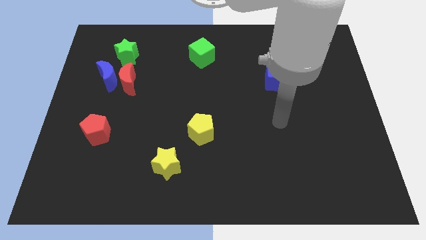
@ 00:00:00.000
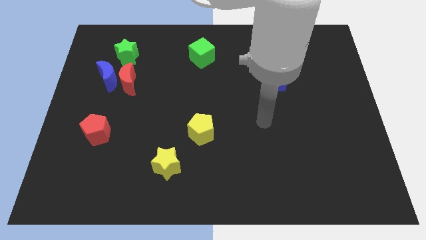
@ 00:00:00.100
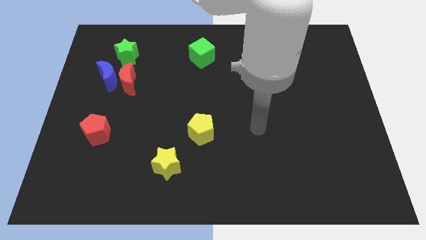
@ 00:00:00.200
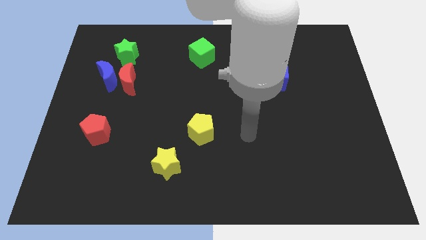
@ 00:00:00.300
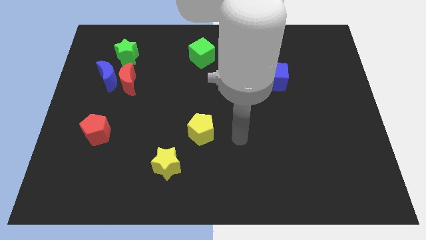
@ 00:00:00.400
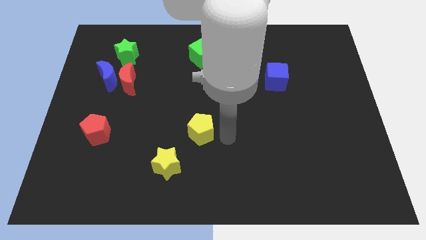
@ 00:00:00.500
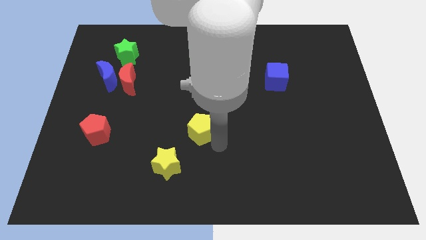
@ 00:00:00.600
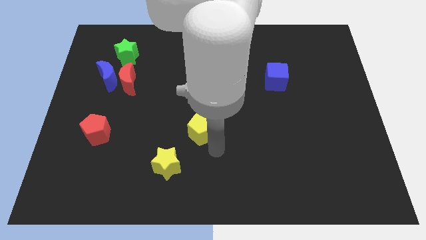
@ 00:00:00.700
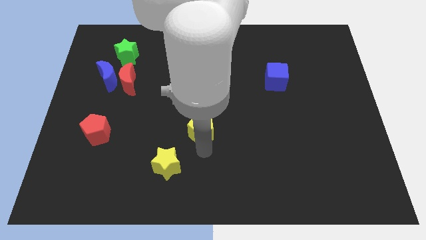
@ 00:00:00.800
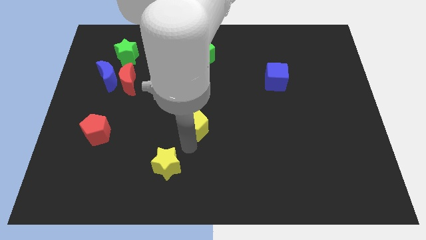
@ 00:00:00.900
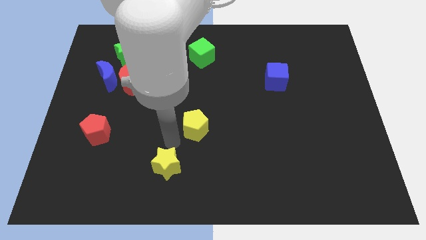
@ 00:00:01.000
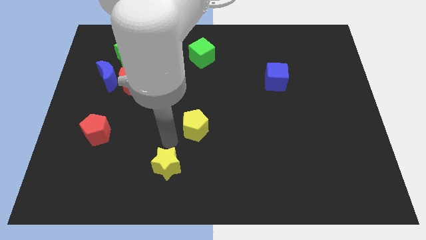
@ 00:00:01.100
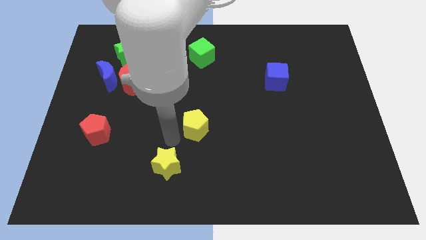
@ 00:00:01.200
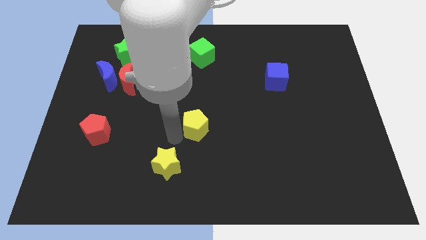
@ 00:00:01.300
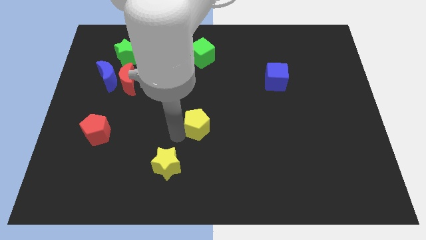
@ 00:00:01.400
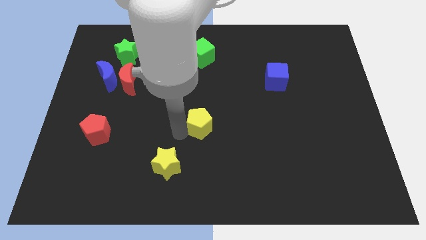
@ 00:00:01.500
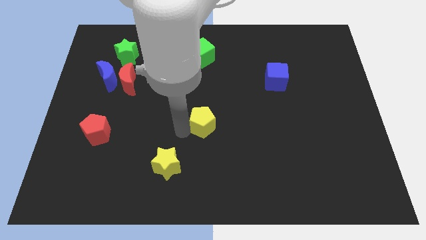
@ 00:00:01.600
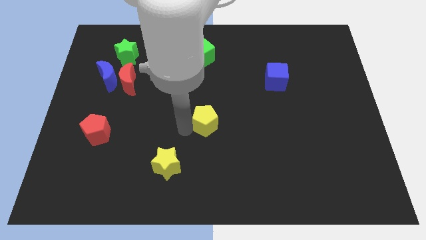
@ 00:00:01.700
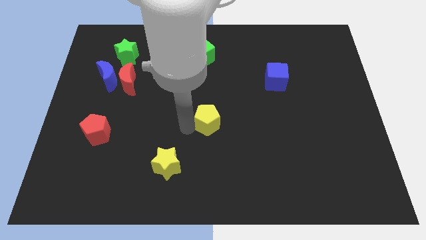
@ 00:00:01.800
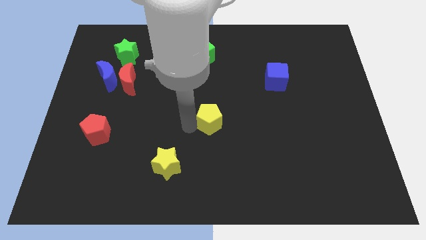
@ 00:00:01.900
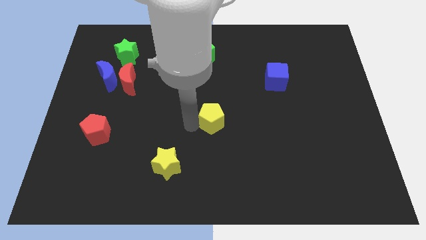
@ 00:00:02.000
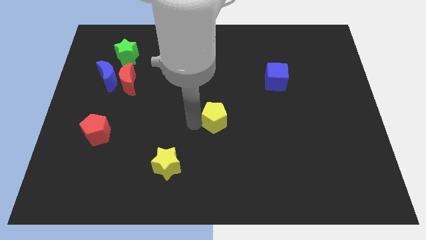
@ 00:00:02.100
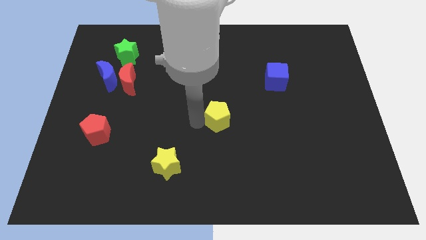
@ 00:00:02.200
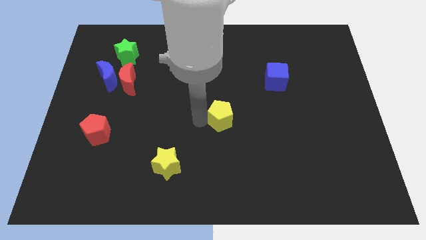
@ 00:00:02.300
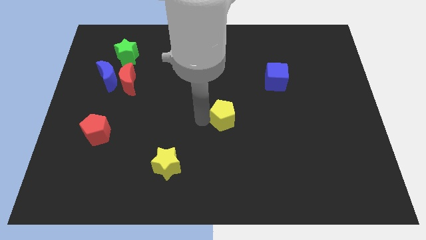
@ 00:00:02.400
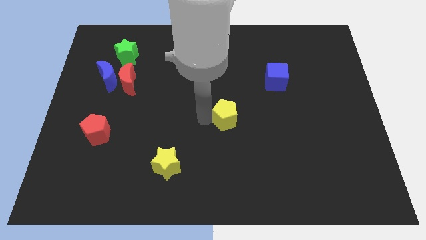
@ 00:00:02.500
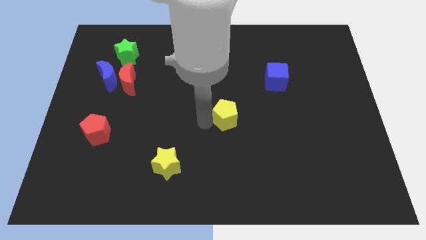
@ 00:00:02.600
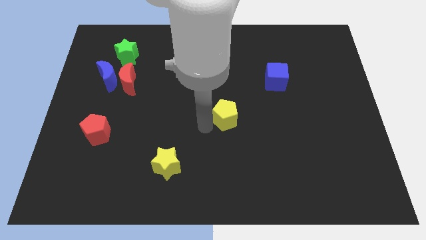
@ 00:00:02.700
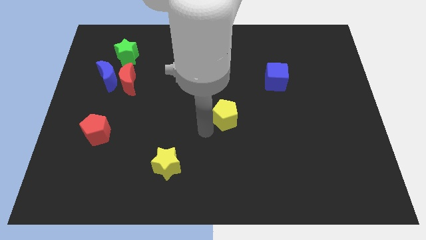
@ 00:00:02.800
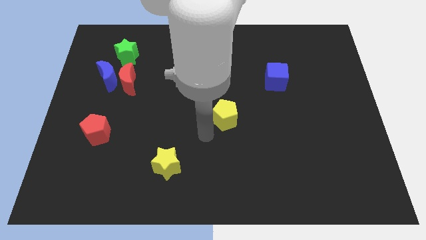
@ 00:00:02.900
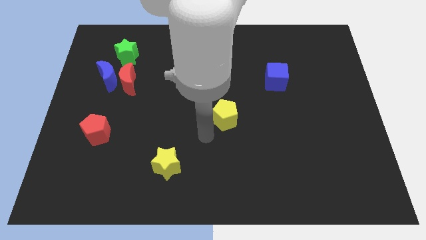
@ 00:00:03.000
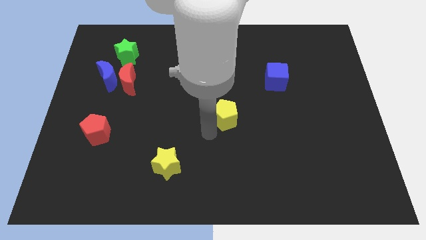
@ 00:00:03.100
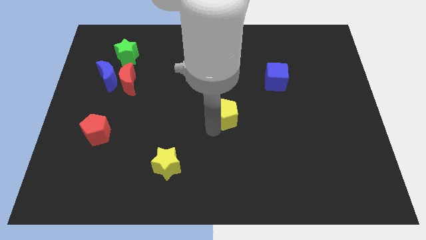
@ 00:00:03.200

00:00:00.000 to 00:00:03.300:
slightly push the yellow pentagon upwards and to the right

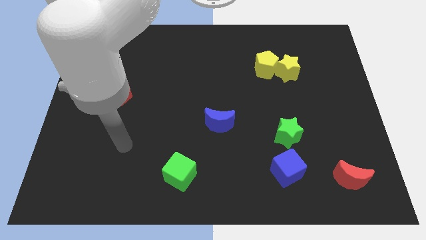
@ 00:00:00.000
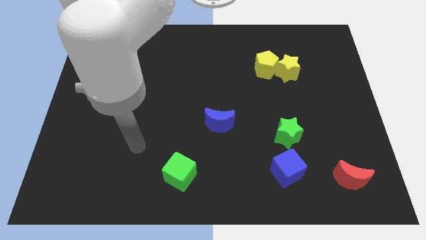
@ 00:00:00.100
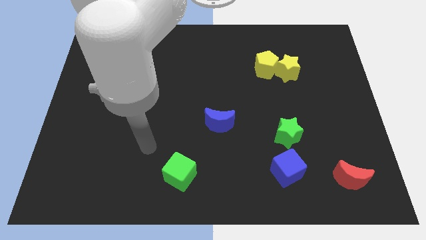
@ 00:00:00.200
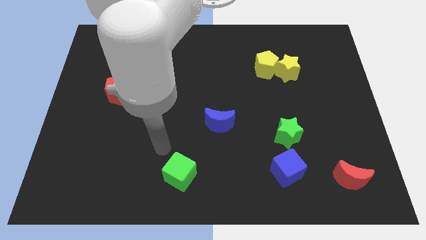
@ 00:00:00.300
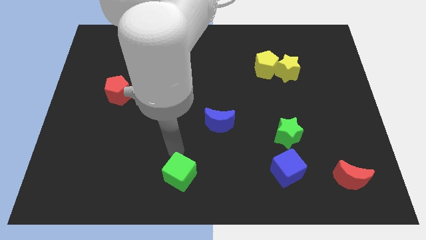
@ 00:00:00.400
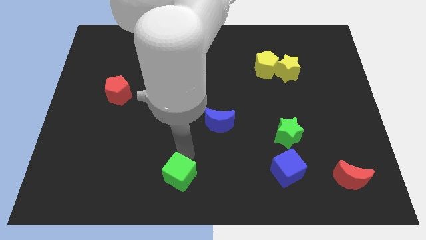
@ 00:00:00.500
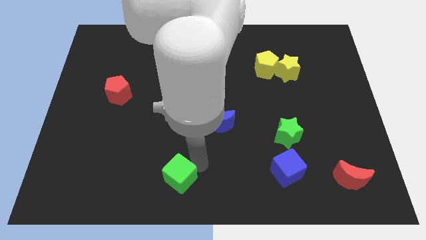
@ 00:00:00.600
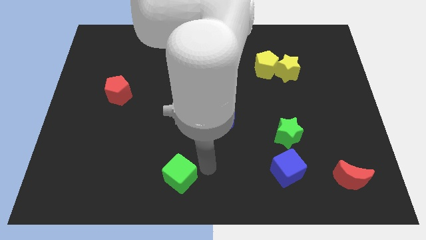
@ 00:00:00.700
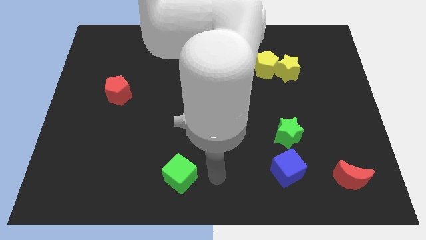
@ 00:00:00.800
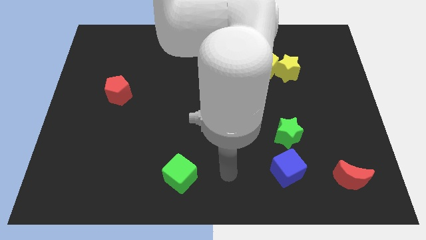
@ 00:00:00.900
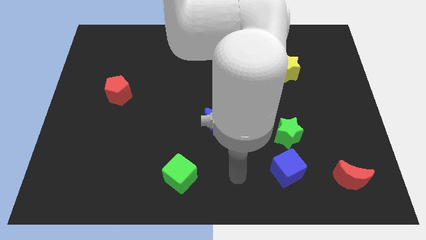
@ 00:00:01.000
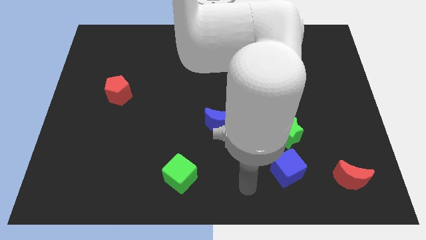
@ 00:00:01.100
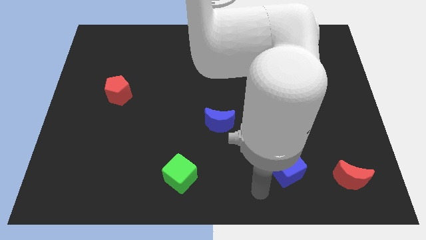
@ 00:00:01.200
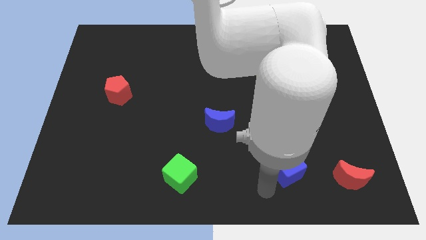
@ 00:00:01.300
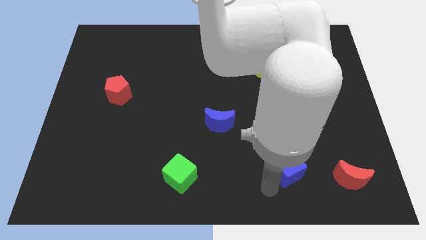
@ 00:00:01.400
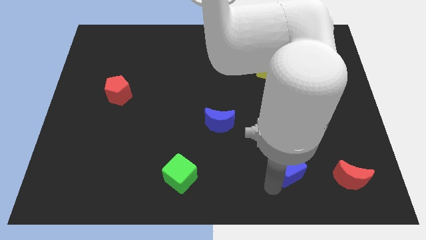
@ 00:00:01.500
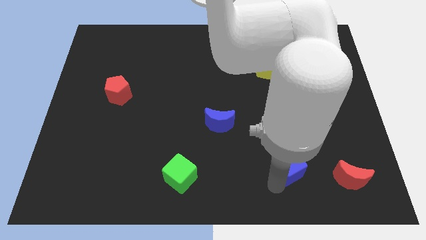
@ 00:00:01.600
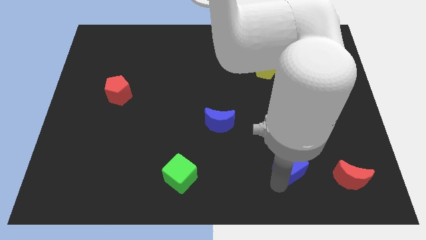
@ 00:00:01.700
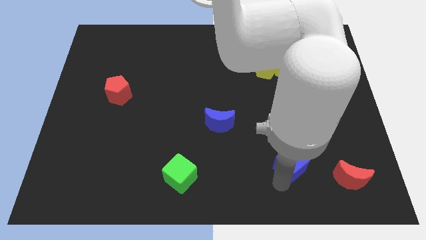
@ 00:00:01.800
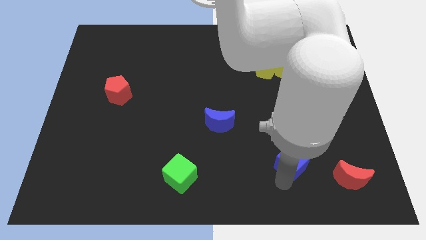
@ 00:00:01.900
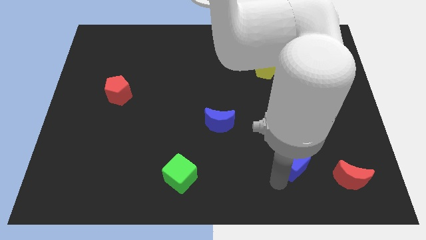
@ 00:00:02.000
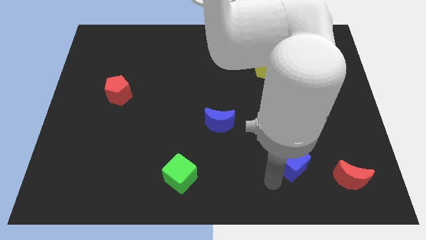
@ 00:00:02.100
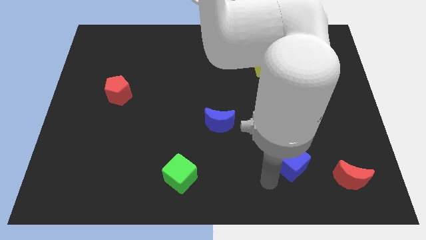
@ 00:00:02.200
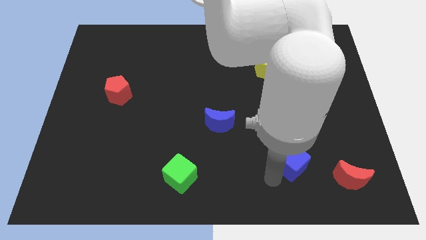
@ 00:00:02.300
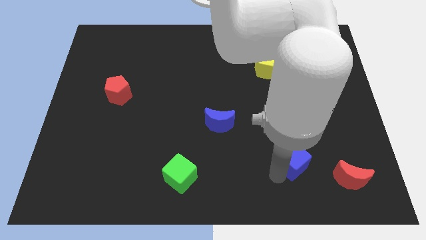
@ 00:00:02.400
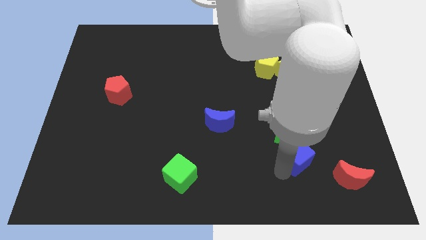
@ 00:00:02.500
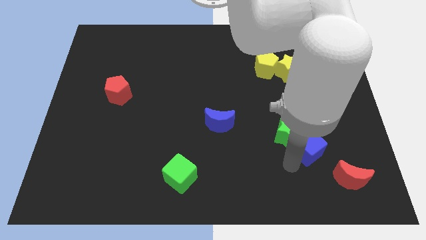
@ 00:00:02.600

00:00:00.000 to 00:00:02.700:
slightly push the blue cube upwards and to the right

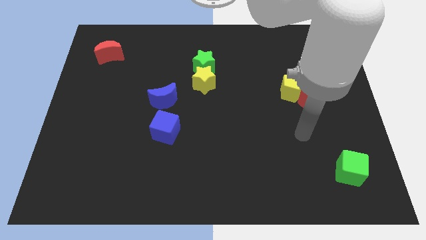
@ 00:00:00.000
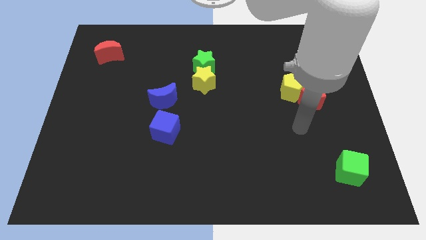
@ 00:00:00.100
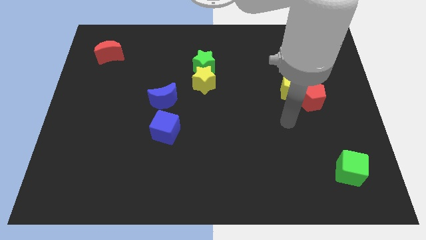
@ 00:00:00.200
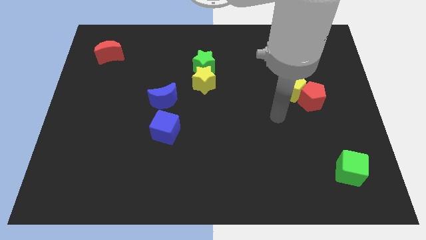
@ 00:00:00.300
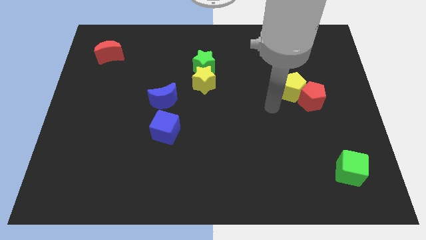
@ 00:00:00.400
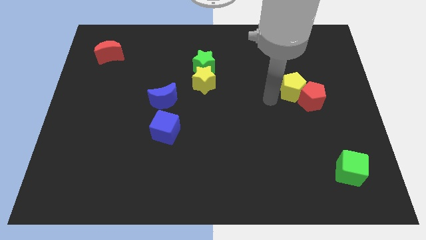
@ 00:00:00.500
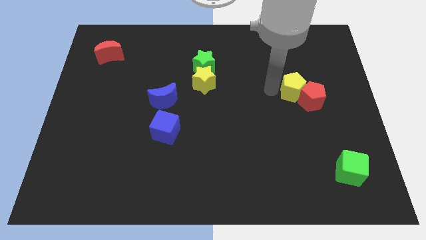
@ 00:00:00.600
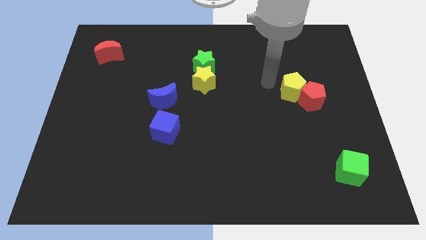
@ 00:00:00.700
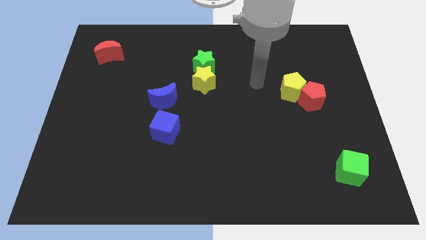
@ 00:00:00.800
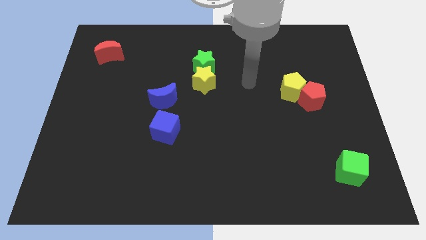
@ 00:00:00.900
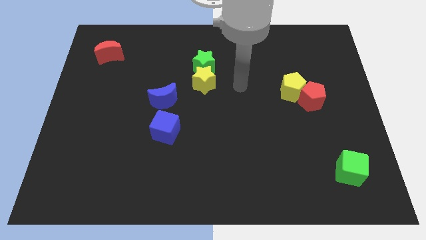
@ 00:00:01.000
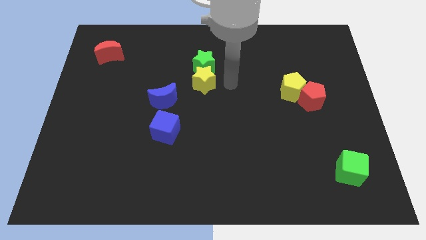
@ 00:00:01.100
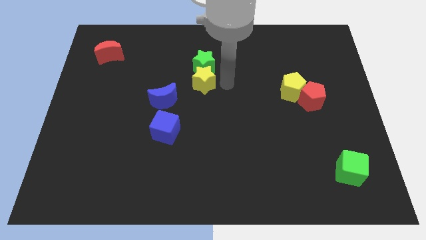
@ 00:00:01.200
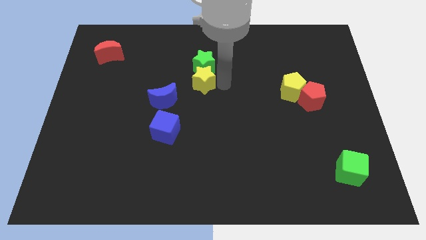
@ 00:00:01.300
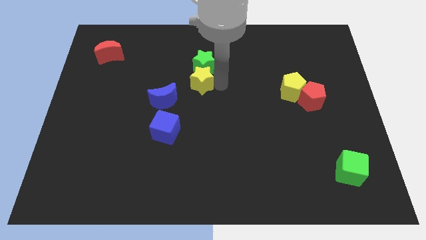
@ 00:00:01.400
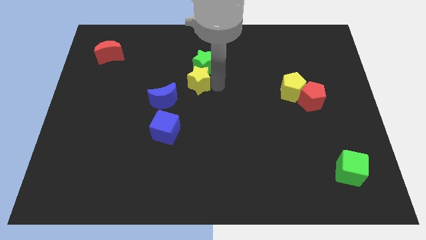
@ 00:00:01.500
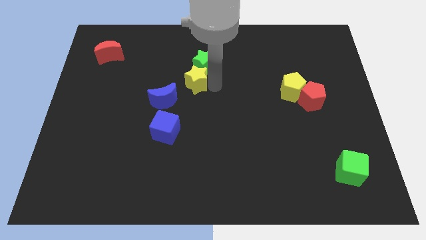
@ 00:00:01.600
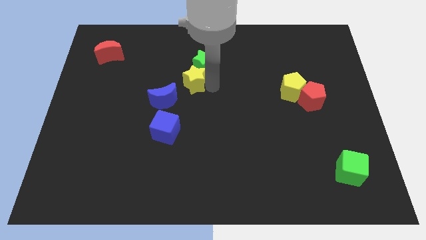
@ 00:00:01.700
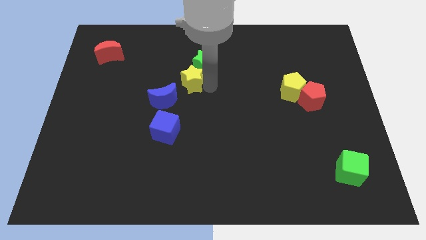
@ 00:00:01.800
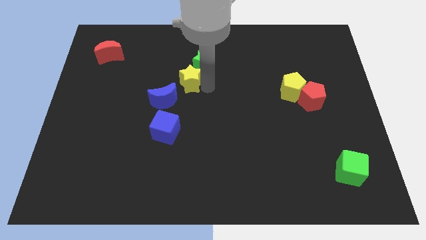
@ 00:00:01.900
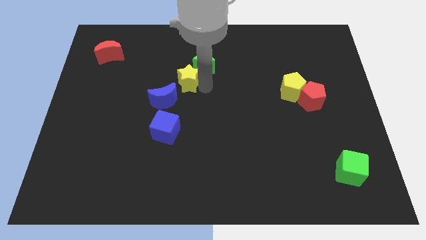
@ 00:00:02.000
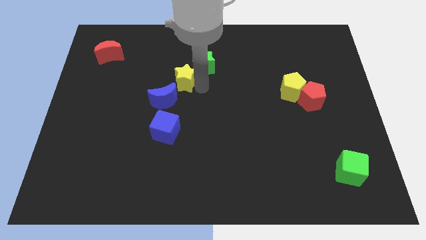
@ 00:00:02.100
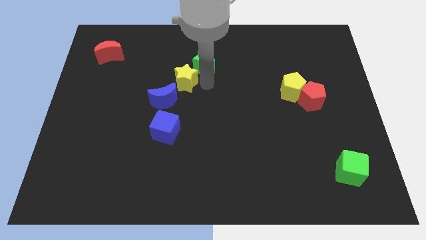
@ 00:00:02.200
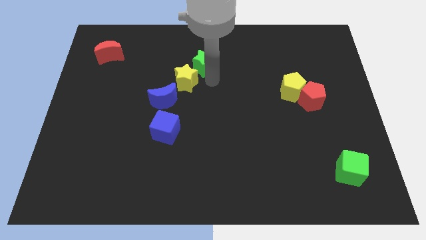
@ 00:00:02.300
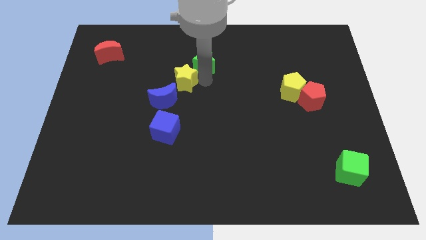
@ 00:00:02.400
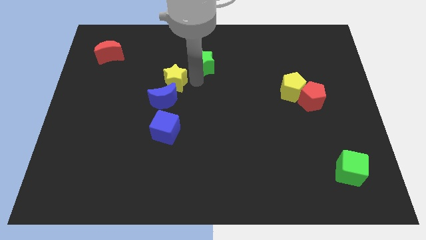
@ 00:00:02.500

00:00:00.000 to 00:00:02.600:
slightly move the yellow star left
